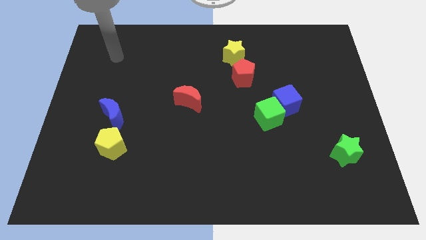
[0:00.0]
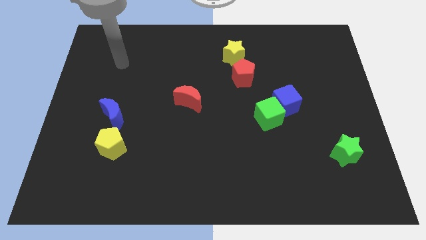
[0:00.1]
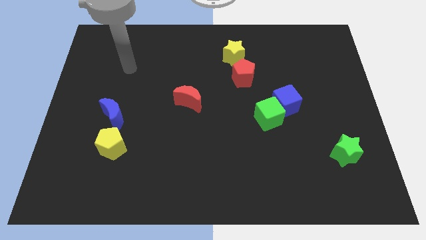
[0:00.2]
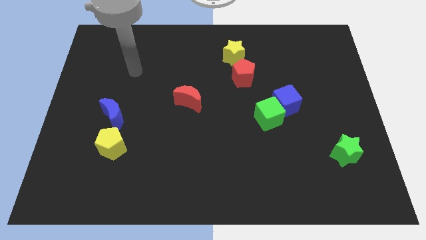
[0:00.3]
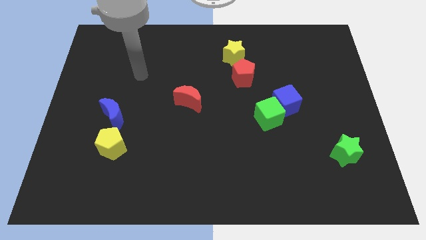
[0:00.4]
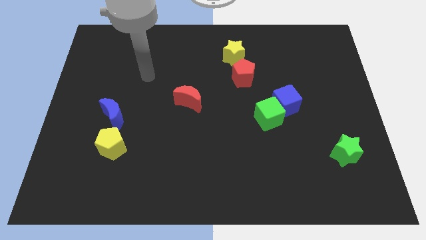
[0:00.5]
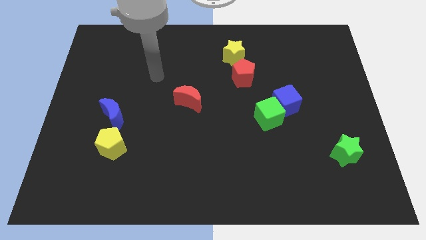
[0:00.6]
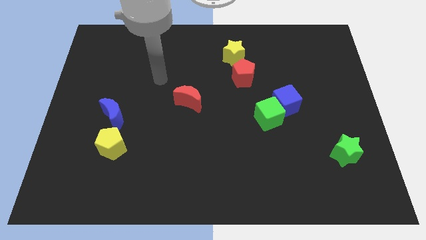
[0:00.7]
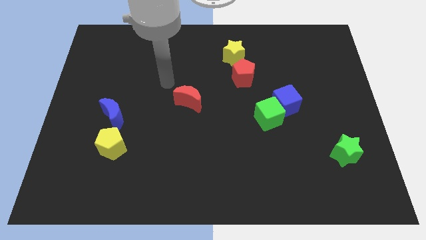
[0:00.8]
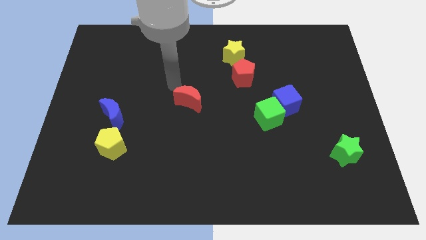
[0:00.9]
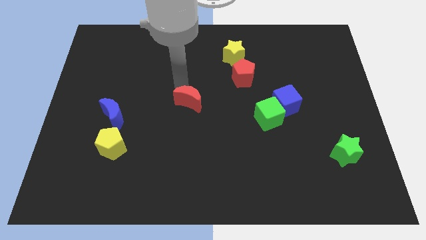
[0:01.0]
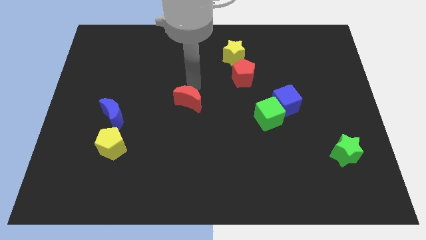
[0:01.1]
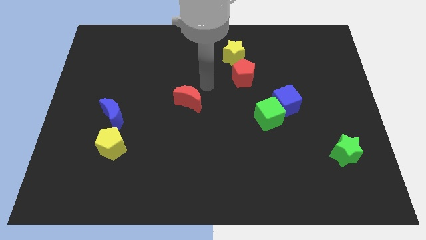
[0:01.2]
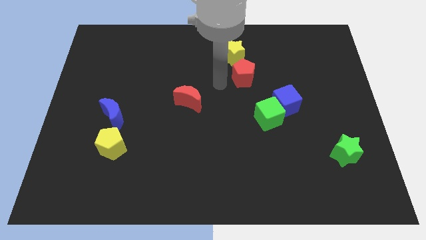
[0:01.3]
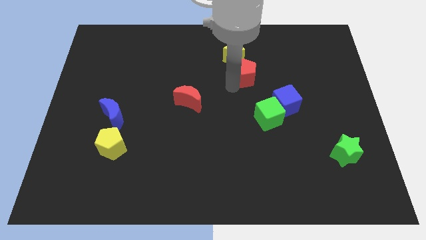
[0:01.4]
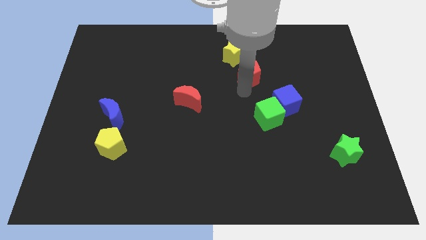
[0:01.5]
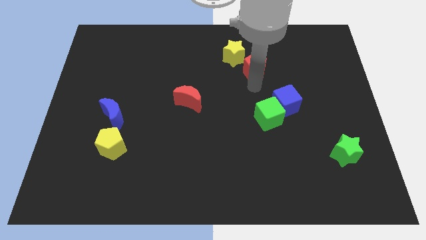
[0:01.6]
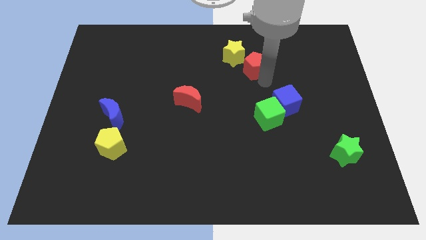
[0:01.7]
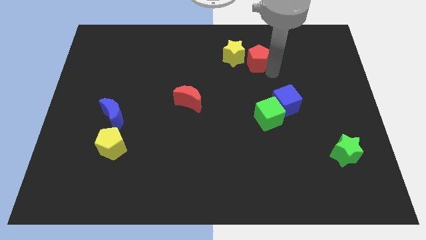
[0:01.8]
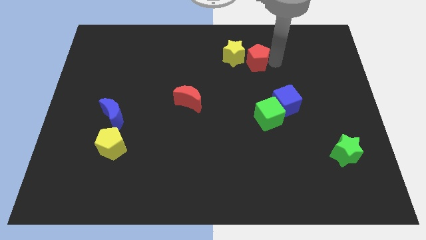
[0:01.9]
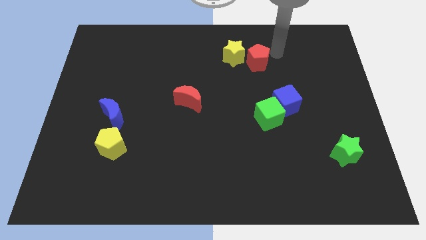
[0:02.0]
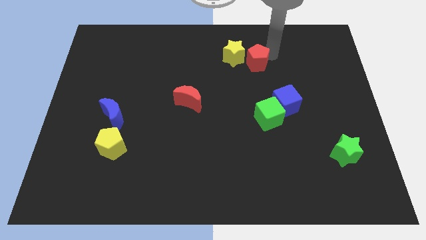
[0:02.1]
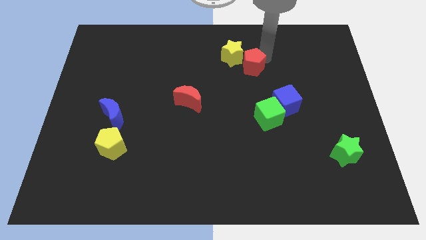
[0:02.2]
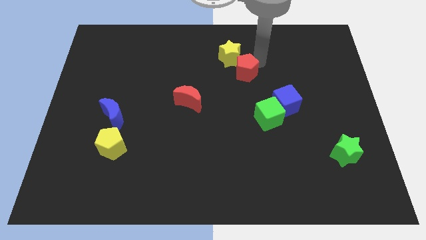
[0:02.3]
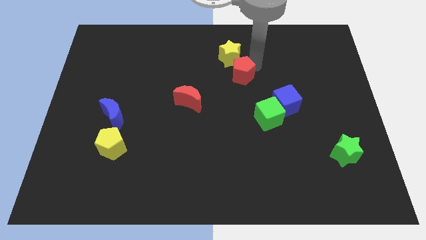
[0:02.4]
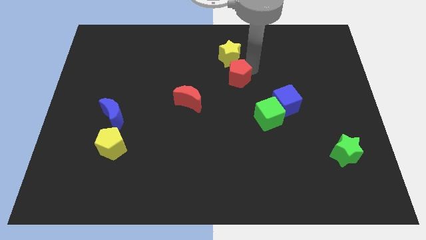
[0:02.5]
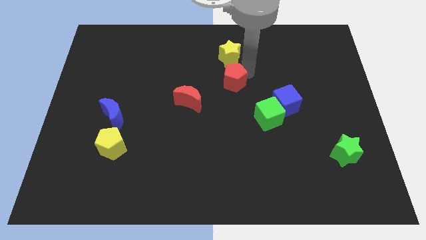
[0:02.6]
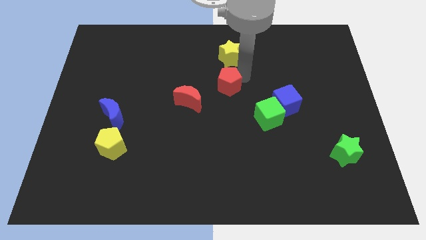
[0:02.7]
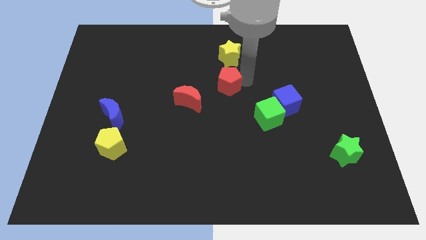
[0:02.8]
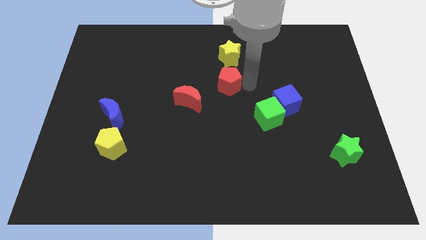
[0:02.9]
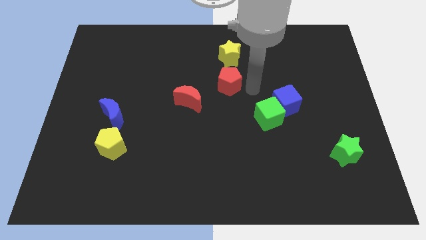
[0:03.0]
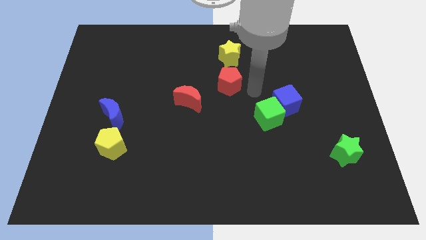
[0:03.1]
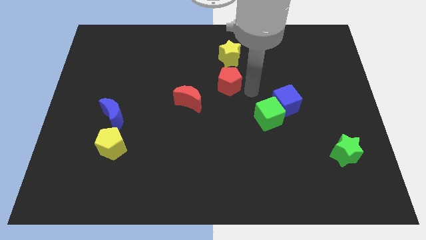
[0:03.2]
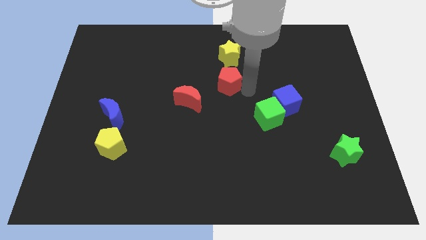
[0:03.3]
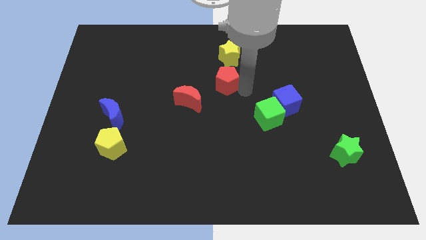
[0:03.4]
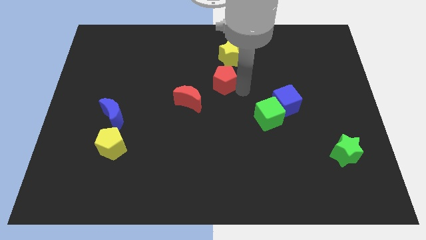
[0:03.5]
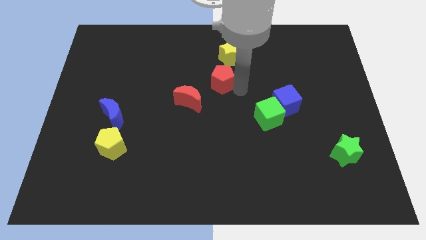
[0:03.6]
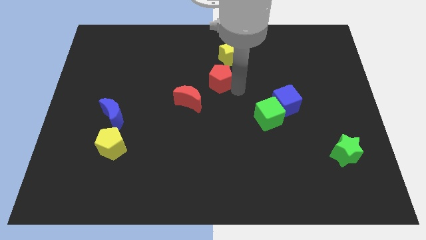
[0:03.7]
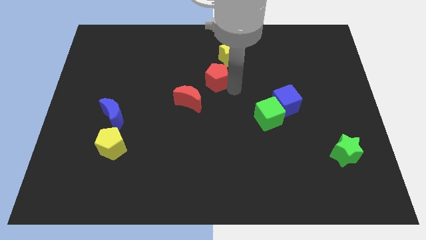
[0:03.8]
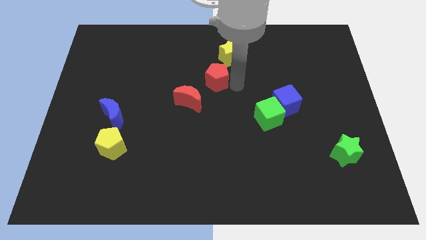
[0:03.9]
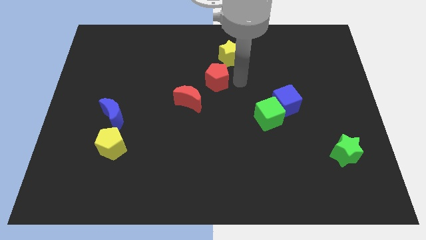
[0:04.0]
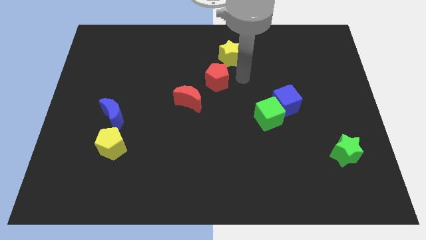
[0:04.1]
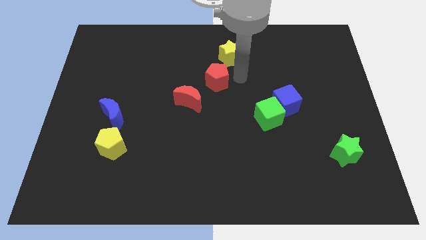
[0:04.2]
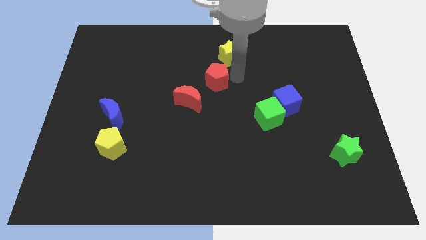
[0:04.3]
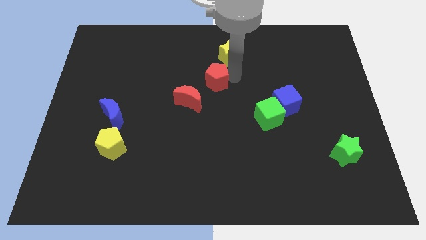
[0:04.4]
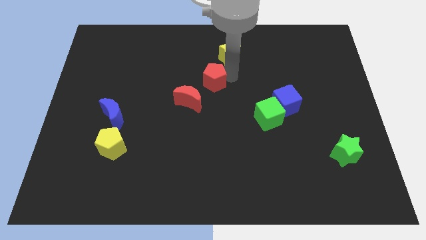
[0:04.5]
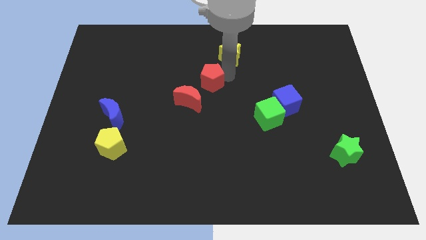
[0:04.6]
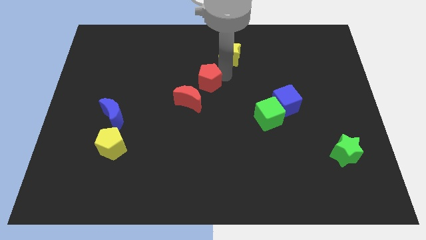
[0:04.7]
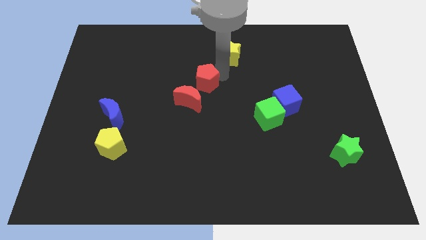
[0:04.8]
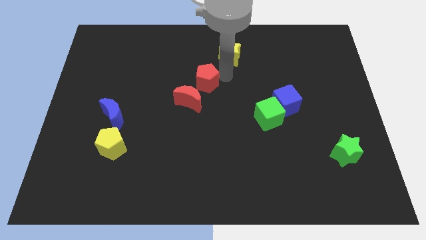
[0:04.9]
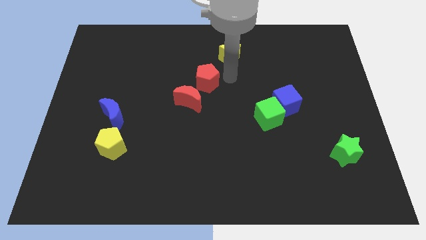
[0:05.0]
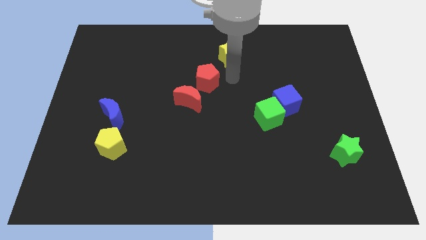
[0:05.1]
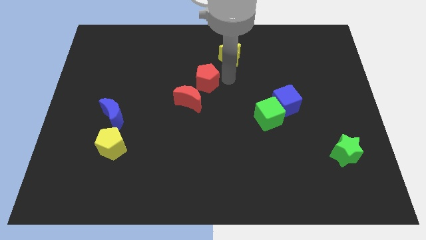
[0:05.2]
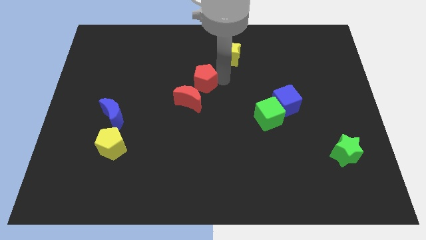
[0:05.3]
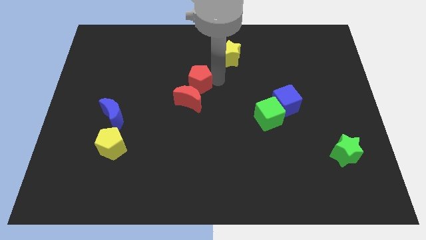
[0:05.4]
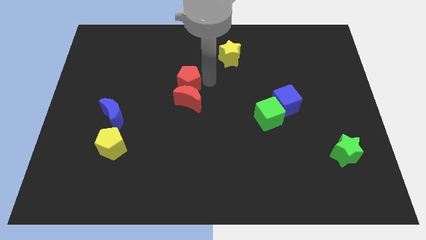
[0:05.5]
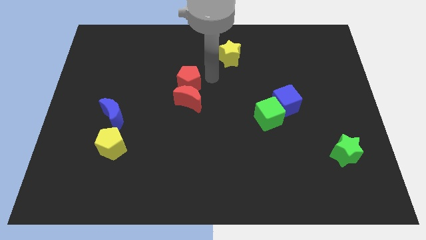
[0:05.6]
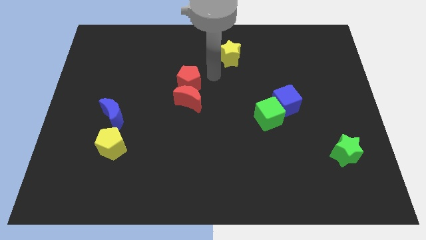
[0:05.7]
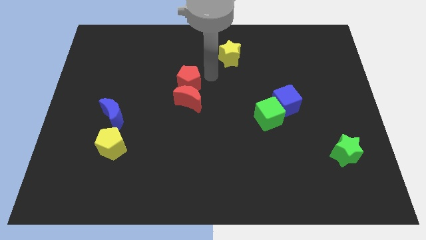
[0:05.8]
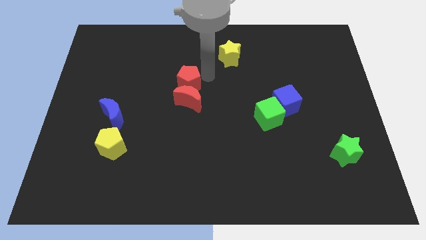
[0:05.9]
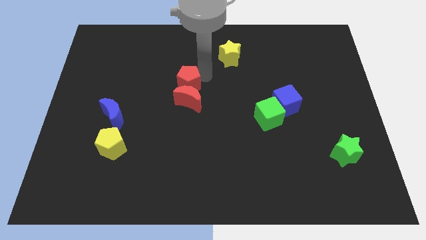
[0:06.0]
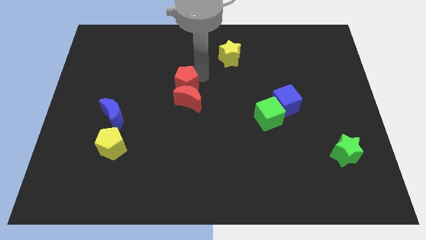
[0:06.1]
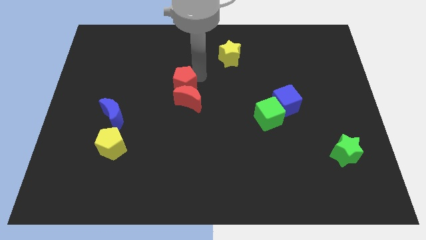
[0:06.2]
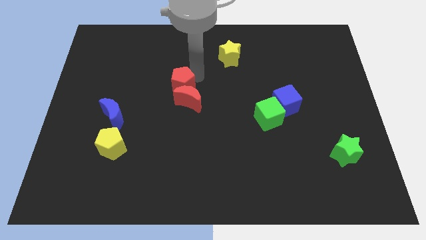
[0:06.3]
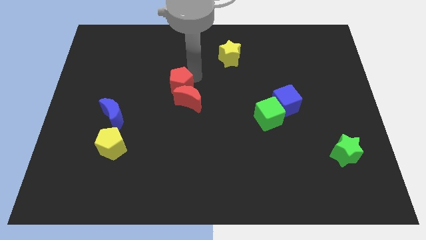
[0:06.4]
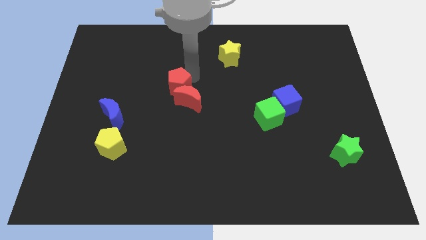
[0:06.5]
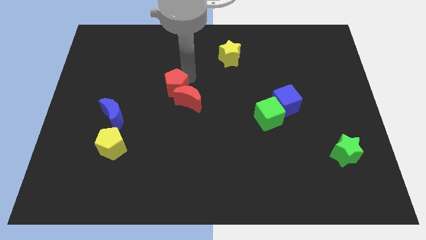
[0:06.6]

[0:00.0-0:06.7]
put the red pentagon left of the red moon

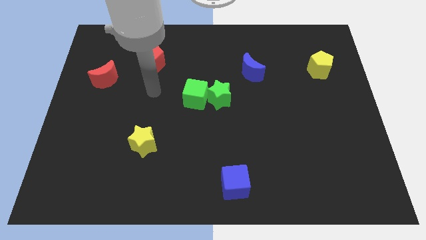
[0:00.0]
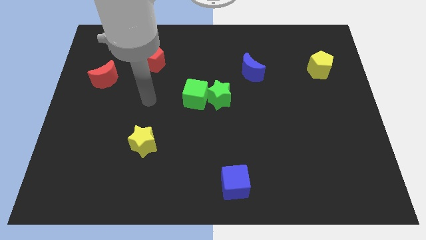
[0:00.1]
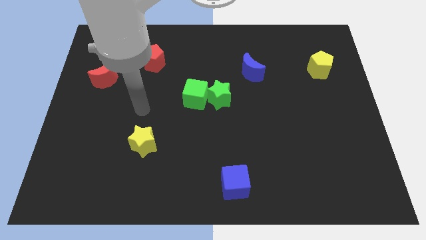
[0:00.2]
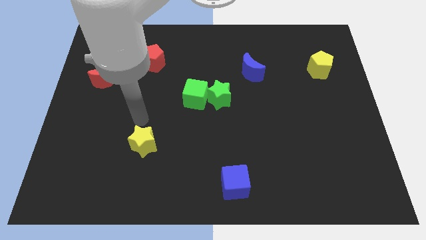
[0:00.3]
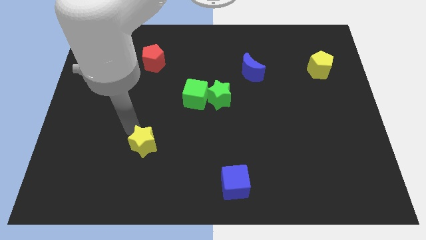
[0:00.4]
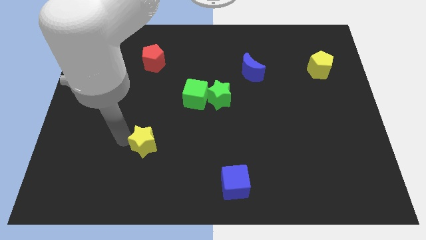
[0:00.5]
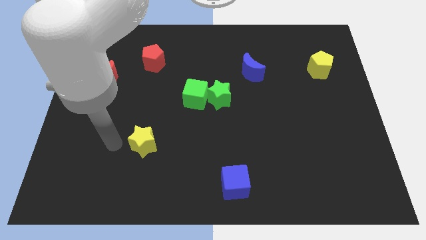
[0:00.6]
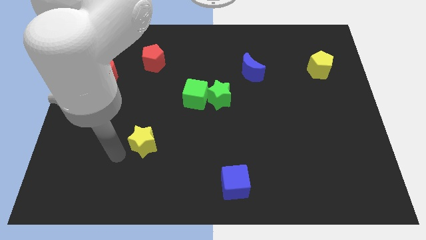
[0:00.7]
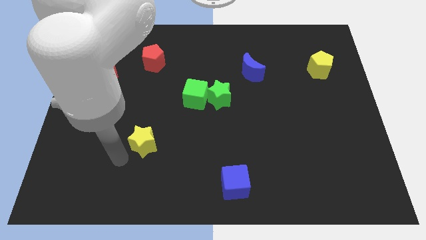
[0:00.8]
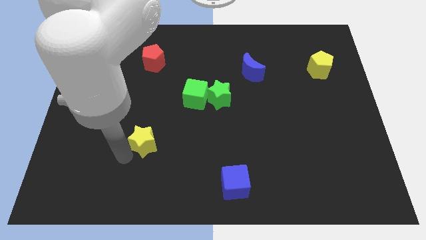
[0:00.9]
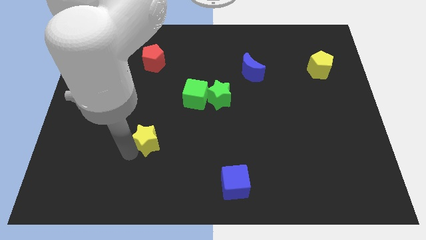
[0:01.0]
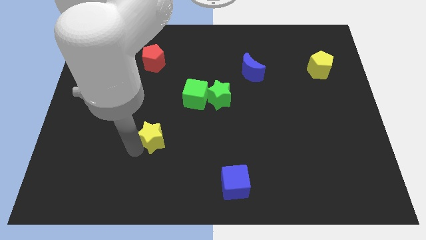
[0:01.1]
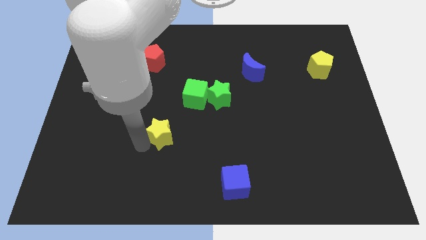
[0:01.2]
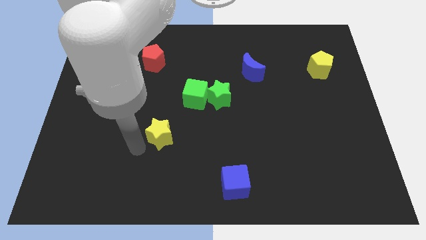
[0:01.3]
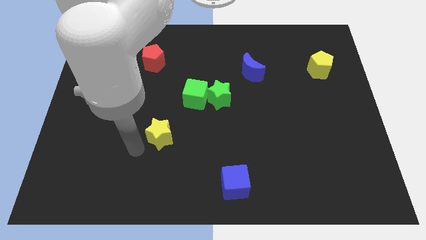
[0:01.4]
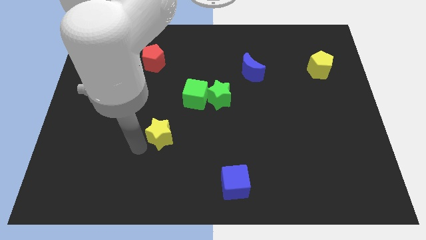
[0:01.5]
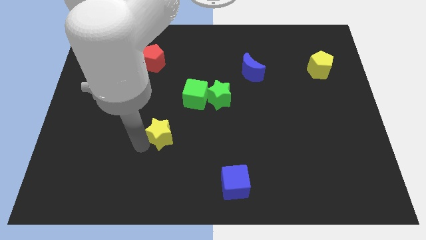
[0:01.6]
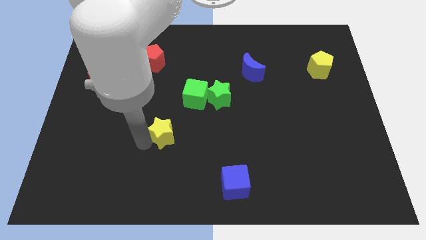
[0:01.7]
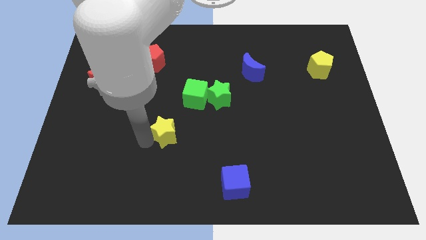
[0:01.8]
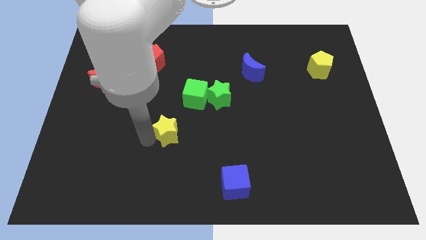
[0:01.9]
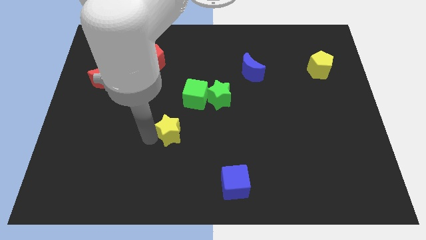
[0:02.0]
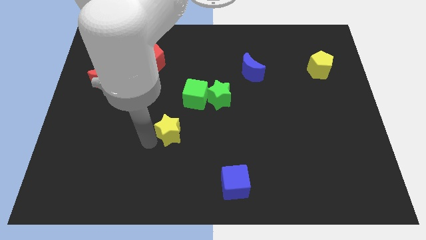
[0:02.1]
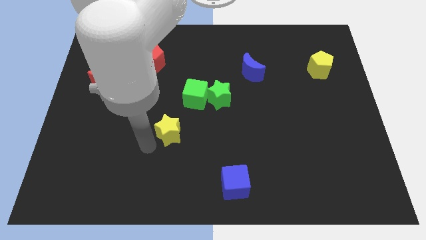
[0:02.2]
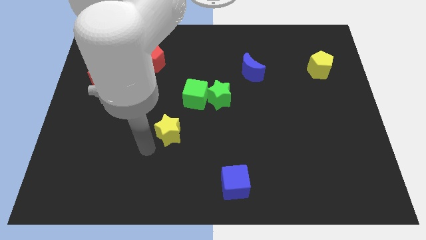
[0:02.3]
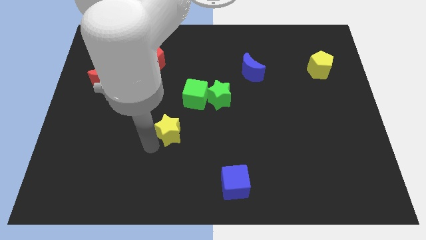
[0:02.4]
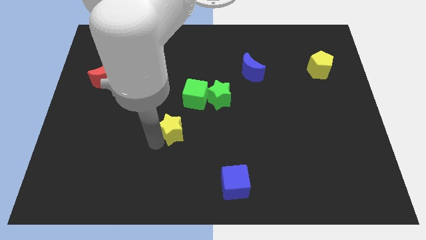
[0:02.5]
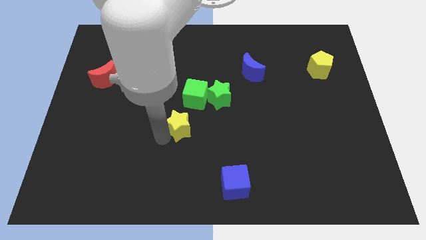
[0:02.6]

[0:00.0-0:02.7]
put the yellow star diagonally down and to the left of the green star
